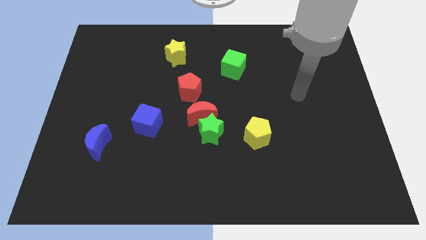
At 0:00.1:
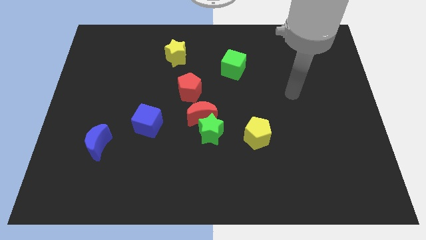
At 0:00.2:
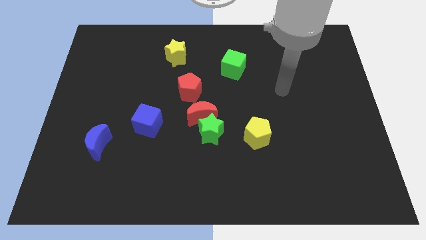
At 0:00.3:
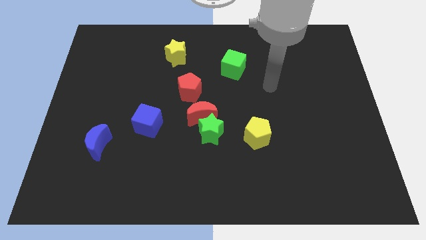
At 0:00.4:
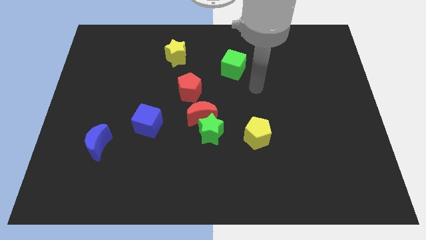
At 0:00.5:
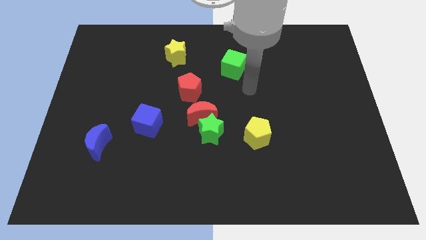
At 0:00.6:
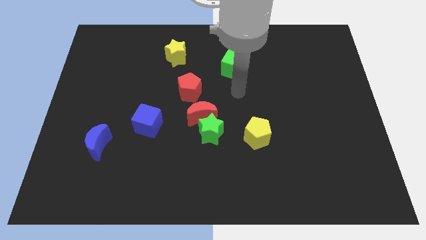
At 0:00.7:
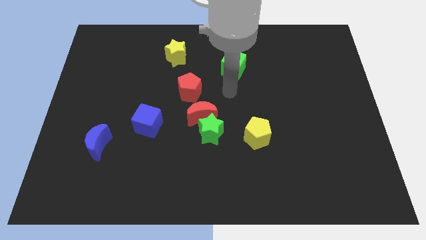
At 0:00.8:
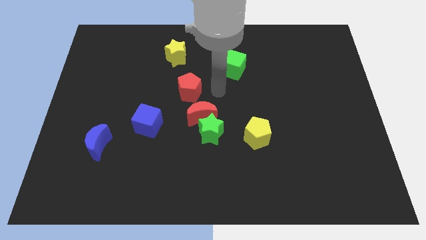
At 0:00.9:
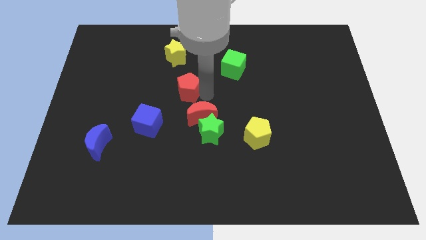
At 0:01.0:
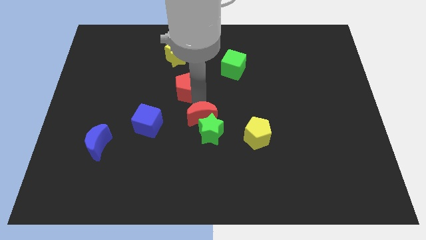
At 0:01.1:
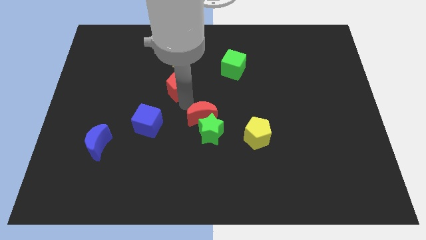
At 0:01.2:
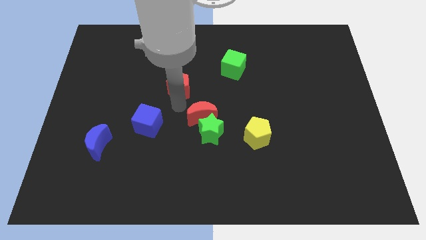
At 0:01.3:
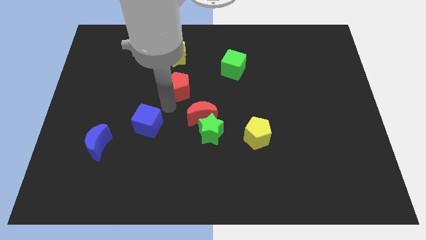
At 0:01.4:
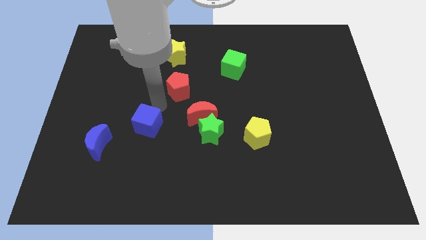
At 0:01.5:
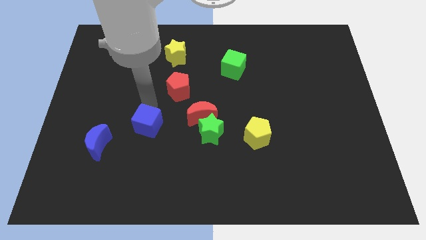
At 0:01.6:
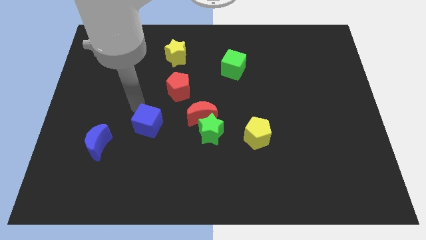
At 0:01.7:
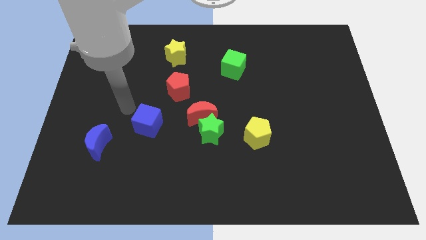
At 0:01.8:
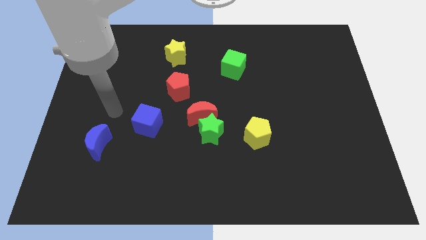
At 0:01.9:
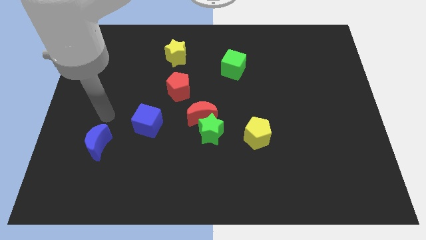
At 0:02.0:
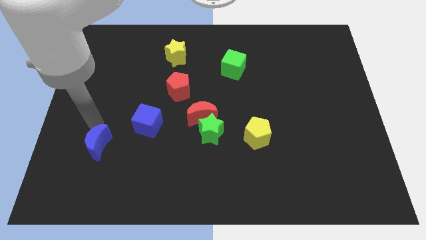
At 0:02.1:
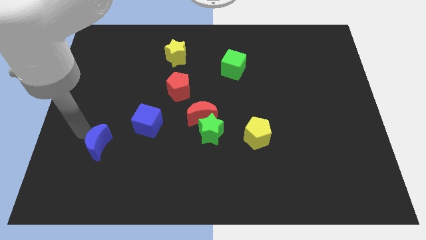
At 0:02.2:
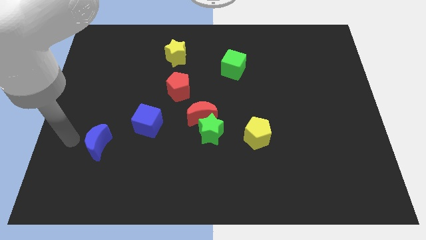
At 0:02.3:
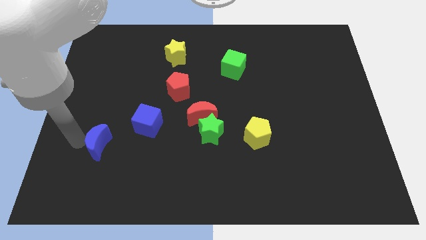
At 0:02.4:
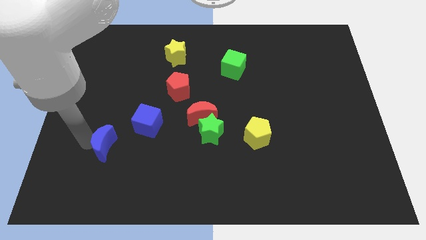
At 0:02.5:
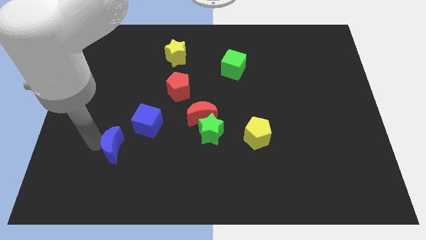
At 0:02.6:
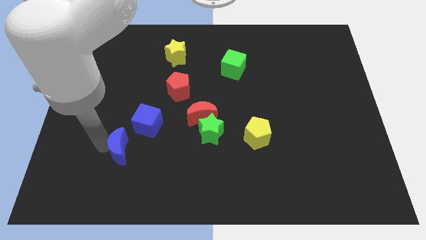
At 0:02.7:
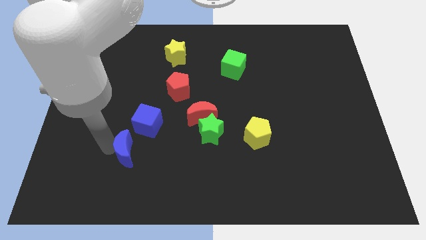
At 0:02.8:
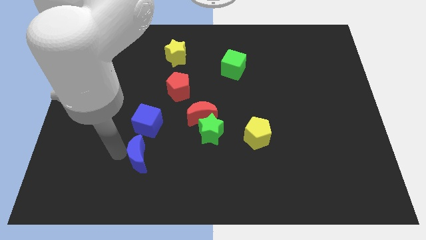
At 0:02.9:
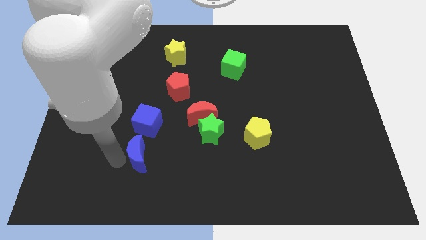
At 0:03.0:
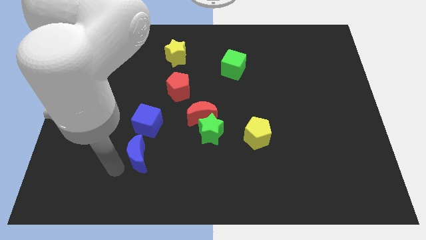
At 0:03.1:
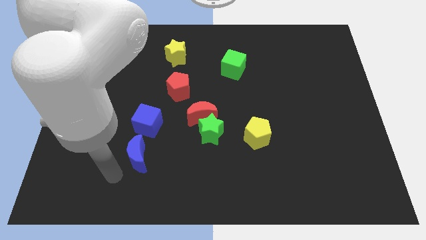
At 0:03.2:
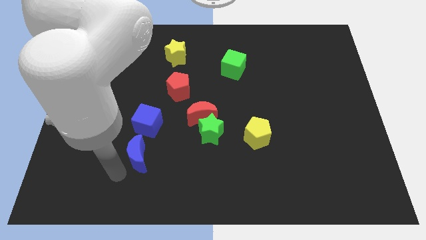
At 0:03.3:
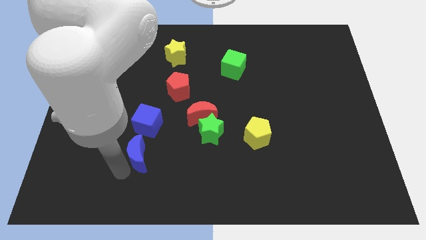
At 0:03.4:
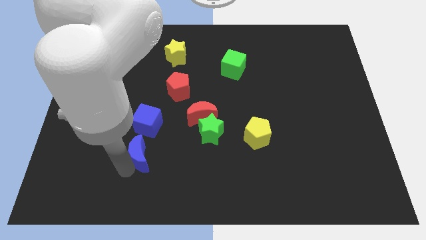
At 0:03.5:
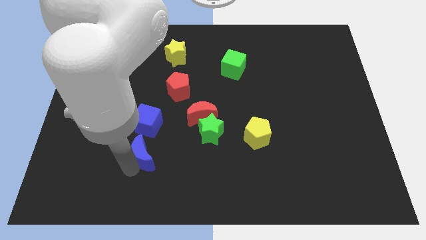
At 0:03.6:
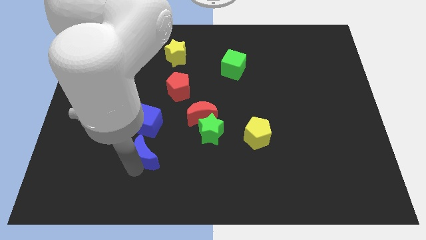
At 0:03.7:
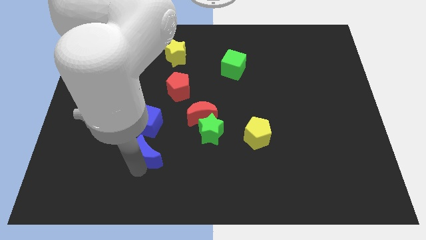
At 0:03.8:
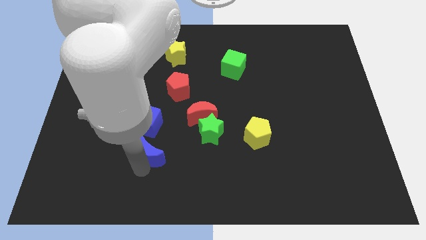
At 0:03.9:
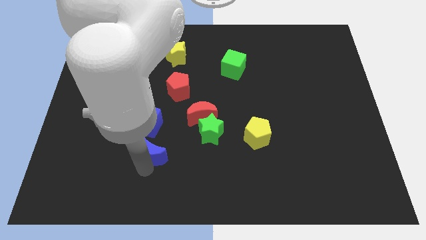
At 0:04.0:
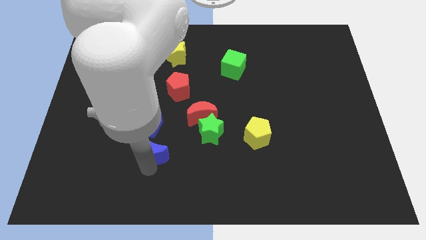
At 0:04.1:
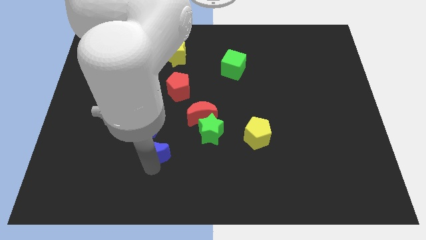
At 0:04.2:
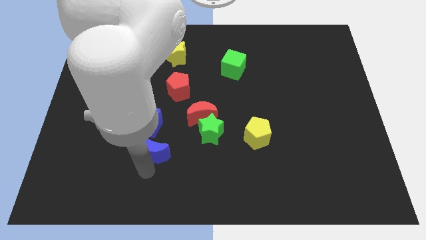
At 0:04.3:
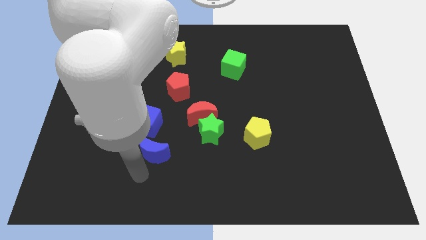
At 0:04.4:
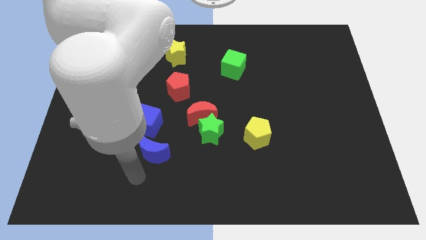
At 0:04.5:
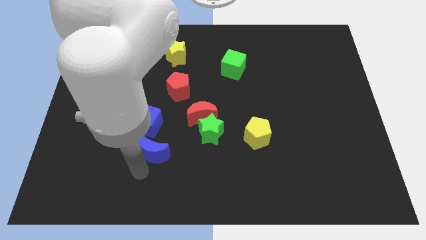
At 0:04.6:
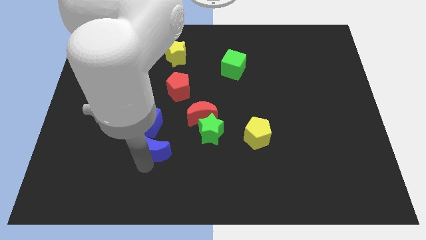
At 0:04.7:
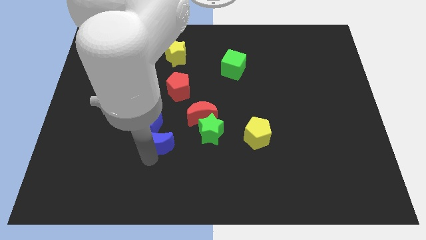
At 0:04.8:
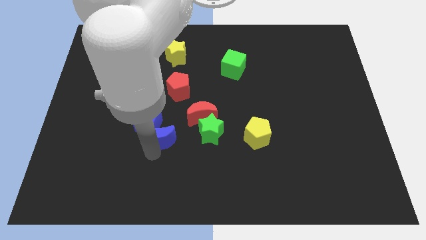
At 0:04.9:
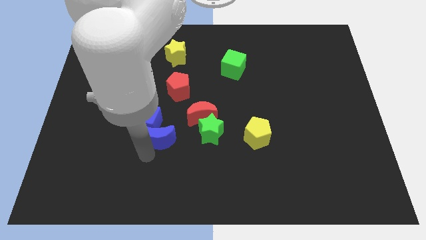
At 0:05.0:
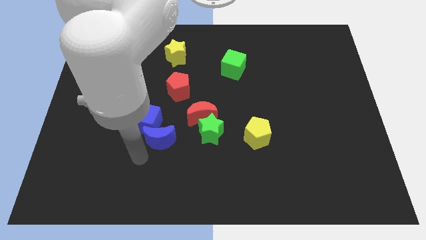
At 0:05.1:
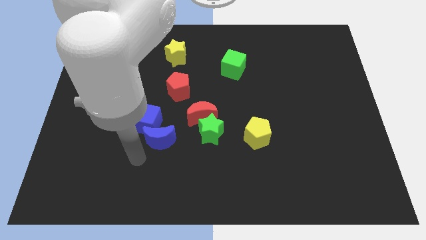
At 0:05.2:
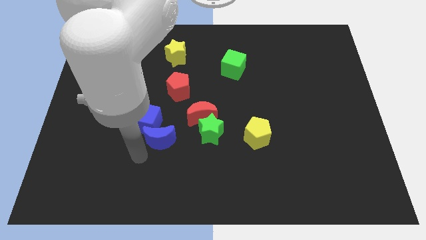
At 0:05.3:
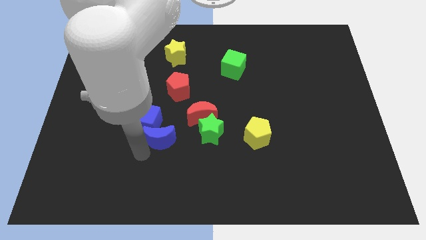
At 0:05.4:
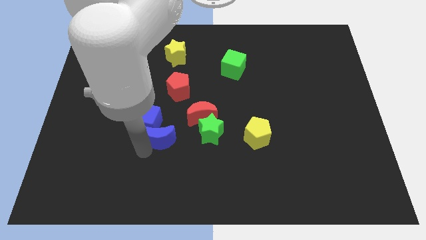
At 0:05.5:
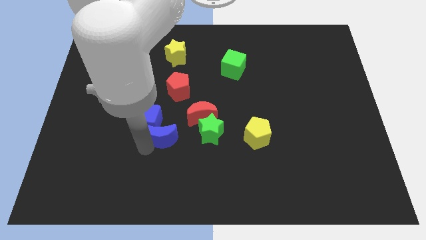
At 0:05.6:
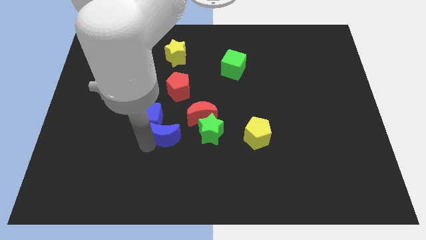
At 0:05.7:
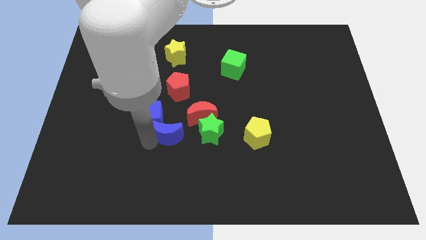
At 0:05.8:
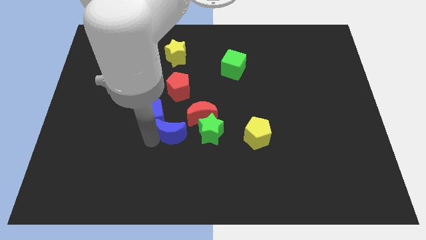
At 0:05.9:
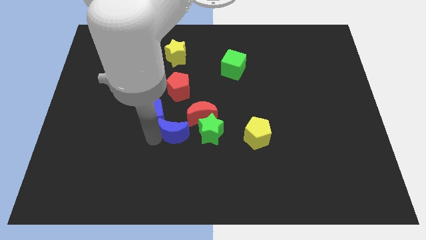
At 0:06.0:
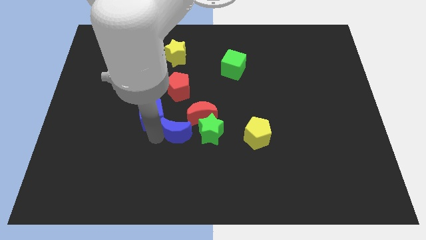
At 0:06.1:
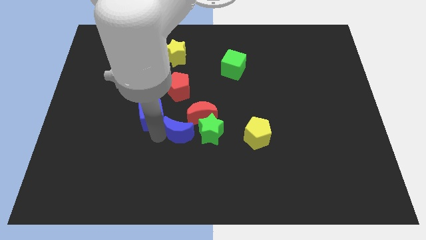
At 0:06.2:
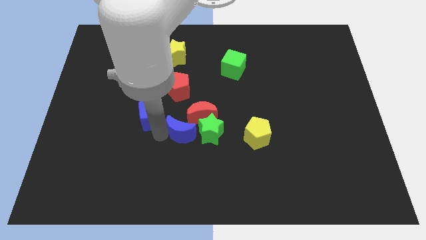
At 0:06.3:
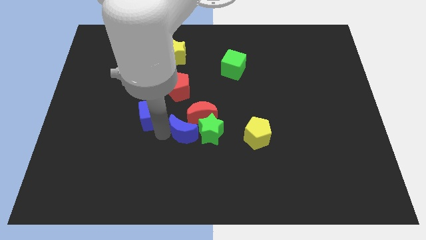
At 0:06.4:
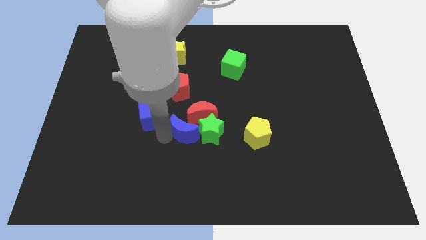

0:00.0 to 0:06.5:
move the blue moon to the red moon

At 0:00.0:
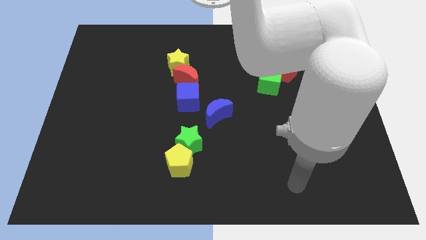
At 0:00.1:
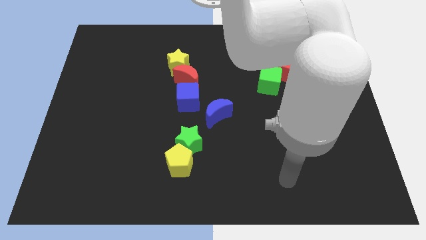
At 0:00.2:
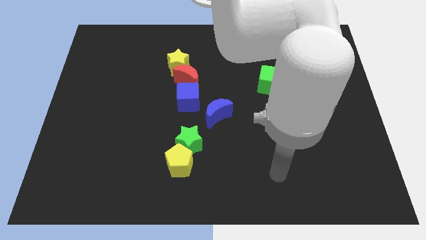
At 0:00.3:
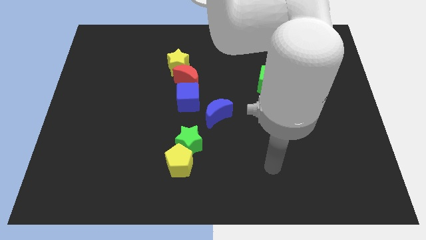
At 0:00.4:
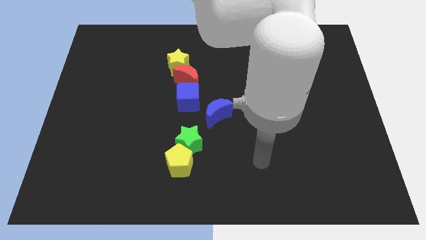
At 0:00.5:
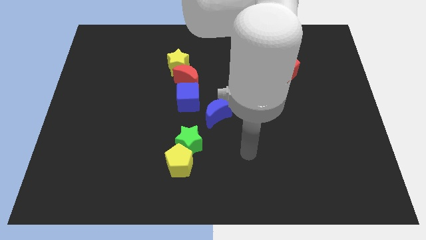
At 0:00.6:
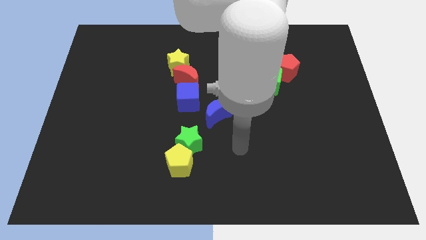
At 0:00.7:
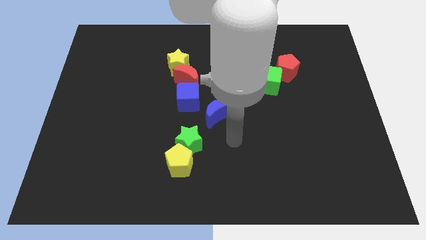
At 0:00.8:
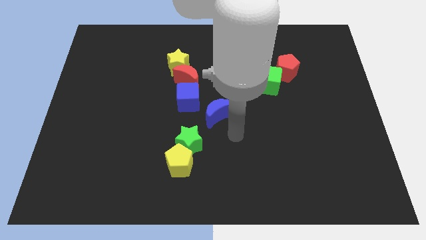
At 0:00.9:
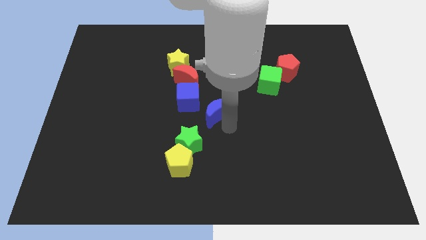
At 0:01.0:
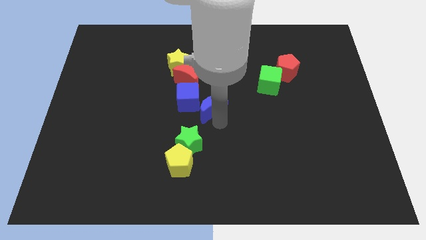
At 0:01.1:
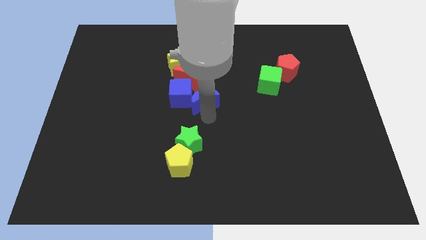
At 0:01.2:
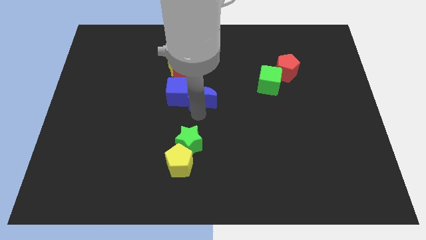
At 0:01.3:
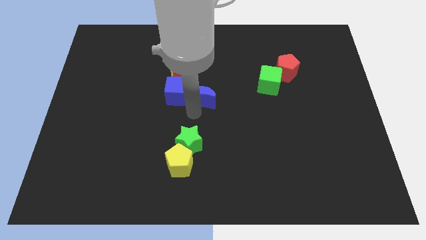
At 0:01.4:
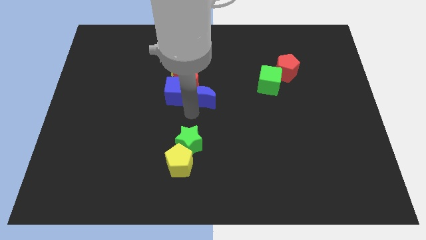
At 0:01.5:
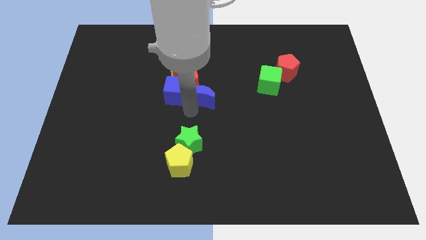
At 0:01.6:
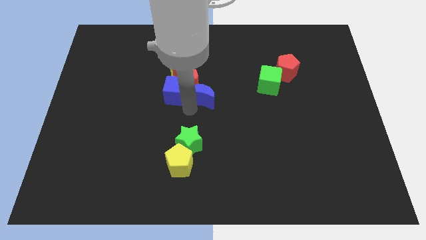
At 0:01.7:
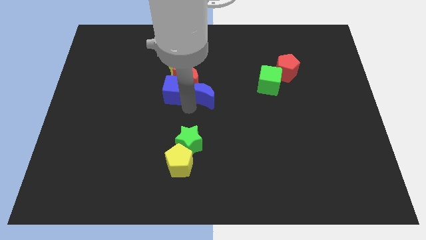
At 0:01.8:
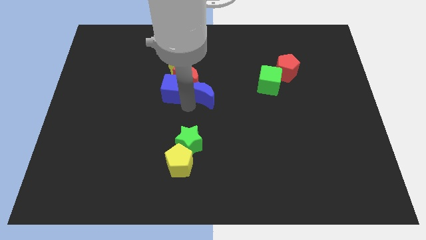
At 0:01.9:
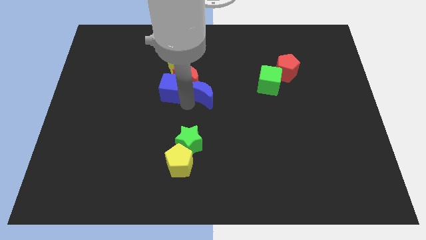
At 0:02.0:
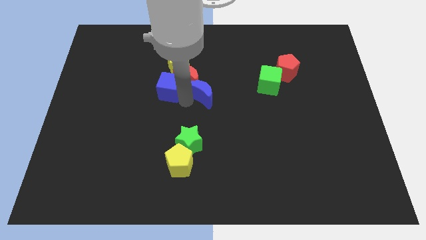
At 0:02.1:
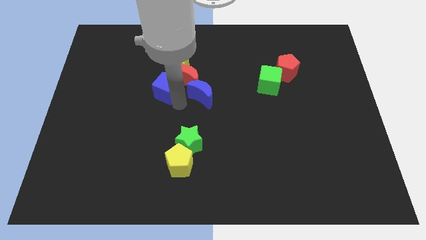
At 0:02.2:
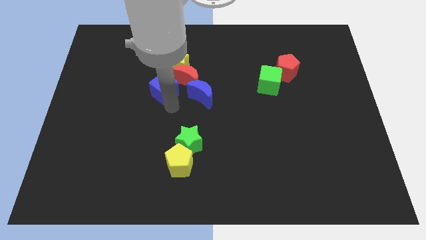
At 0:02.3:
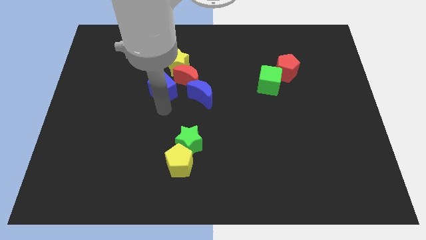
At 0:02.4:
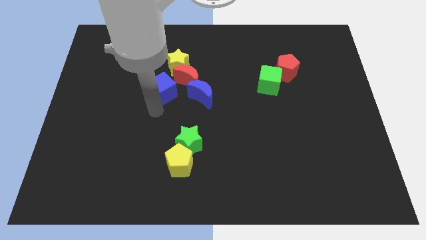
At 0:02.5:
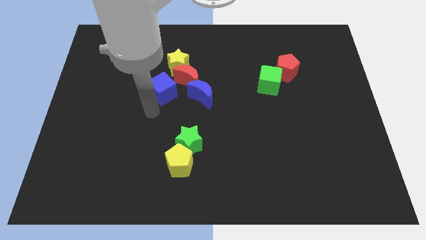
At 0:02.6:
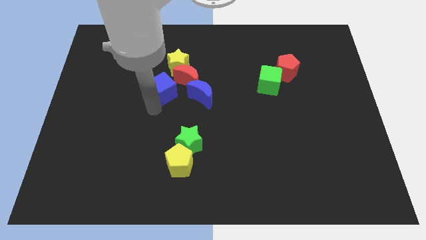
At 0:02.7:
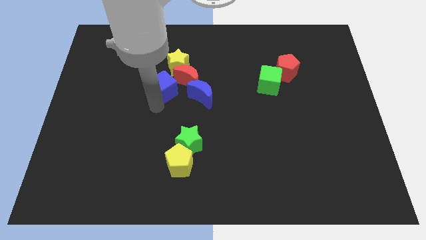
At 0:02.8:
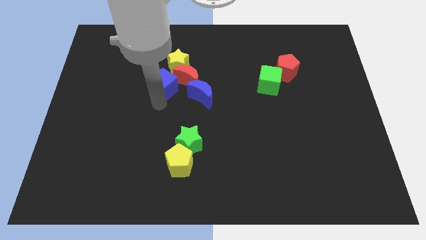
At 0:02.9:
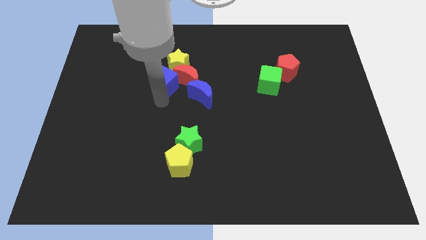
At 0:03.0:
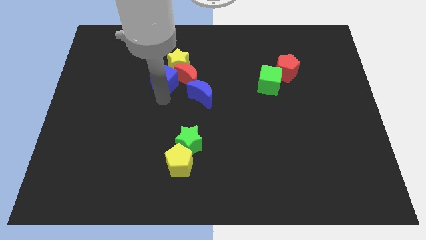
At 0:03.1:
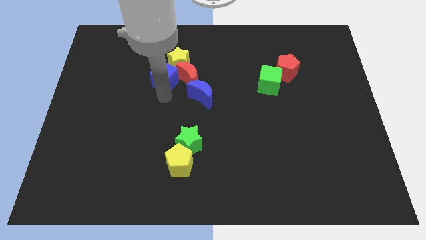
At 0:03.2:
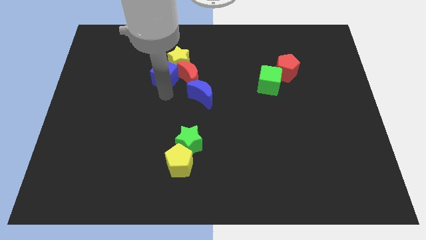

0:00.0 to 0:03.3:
push the blue cube towards the yellow star
